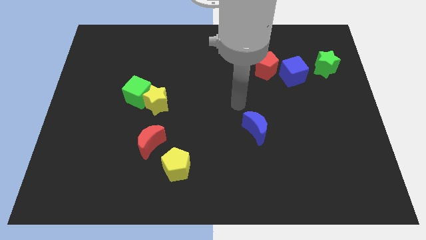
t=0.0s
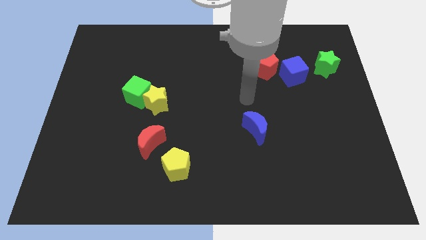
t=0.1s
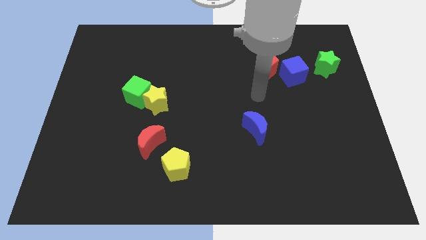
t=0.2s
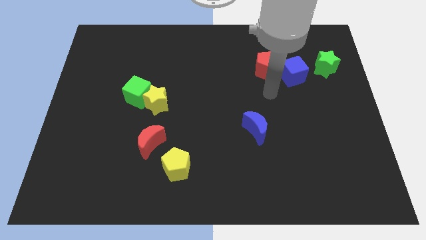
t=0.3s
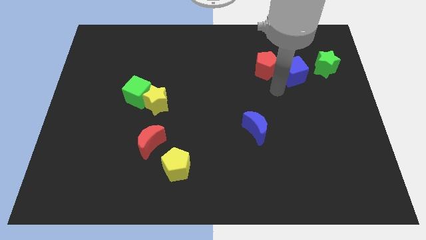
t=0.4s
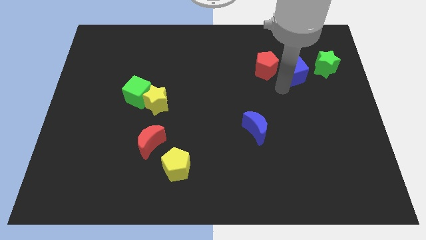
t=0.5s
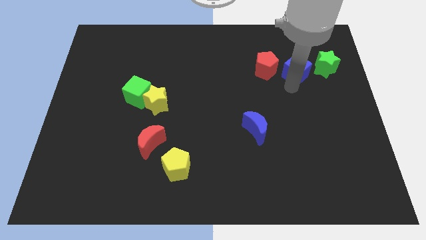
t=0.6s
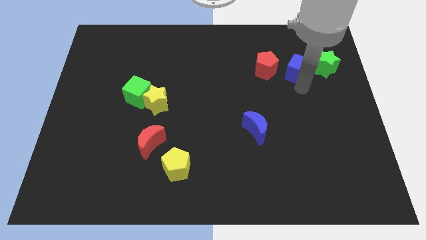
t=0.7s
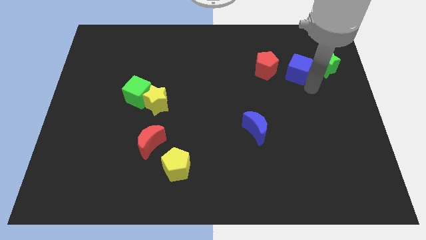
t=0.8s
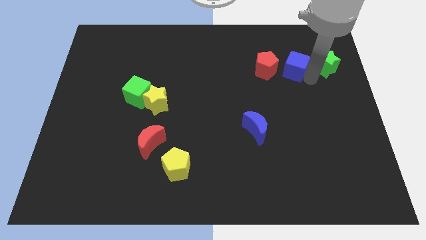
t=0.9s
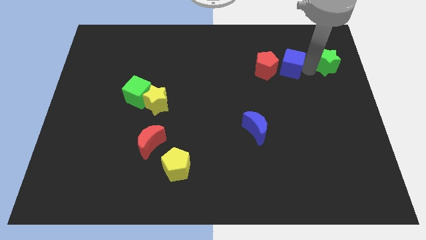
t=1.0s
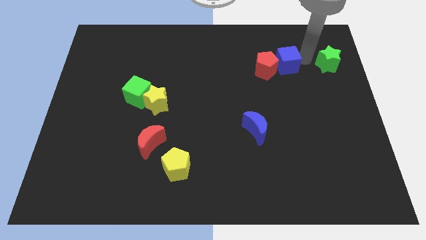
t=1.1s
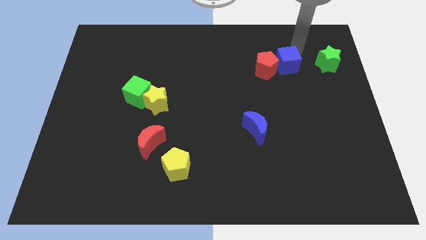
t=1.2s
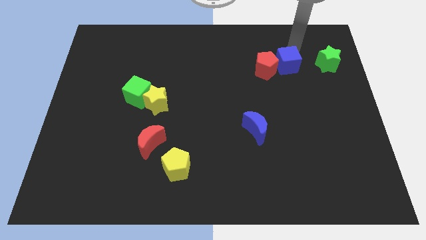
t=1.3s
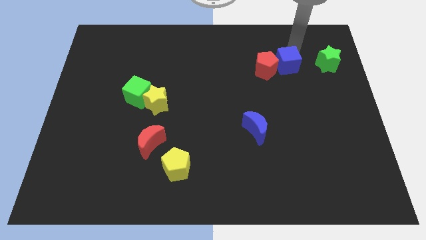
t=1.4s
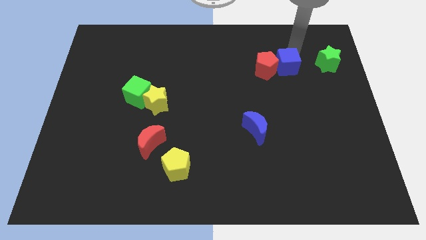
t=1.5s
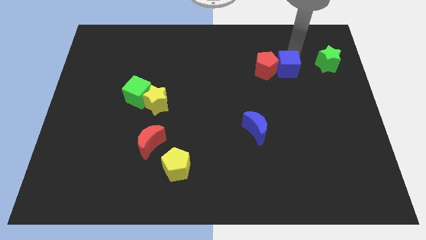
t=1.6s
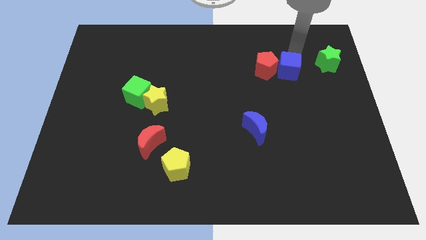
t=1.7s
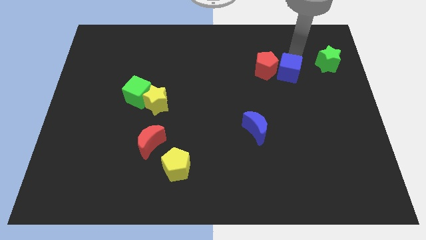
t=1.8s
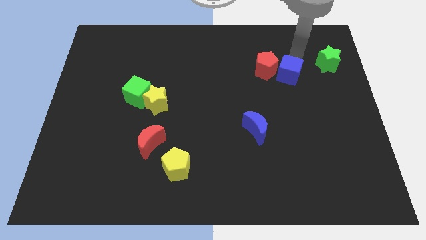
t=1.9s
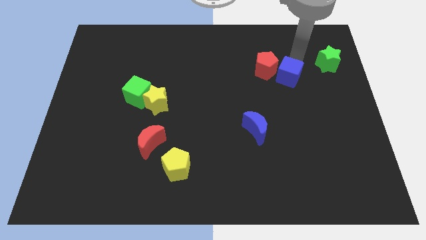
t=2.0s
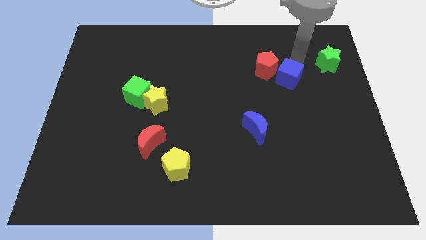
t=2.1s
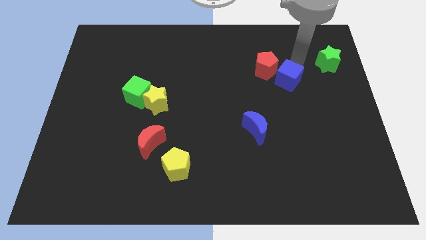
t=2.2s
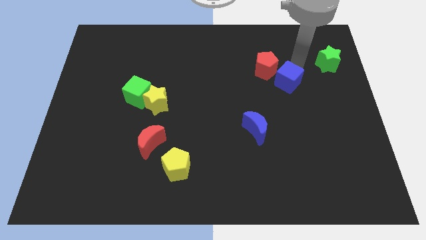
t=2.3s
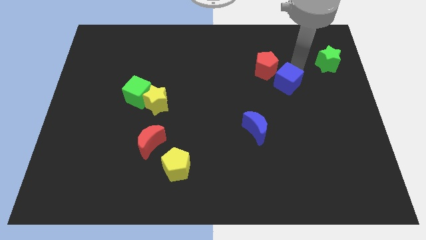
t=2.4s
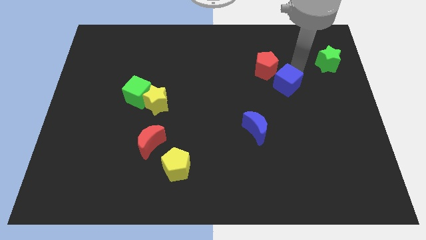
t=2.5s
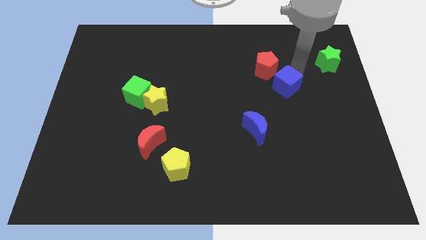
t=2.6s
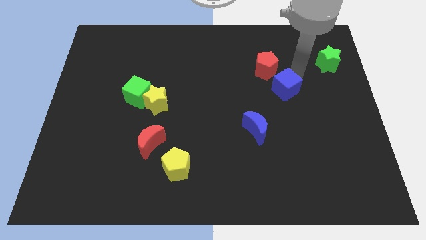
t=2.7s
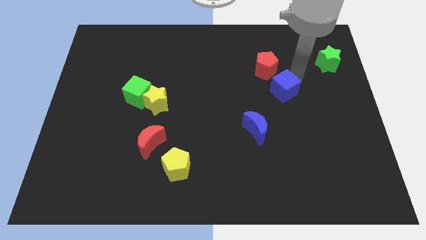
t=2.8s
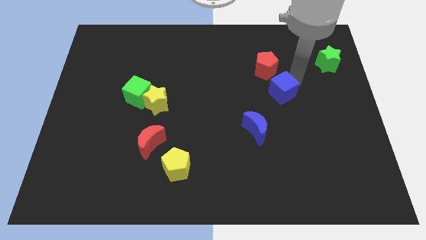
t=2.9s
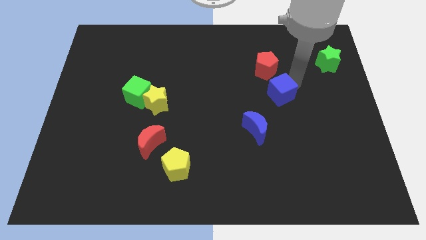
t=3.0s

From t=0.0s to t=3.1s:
slightly push the blue cube diagonally downwards and left

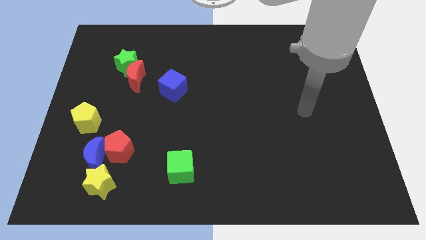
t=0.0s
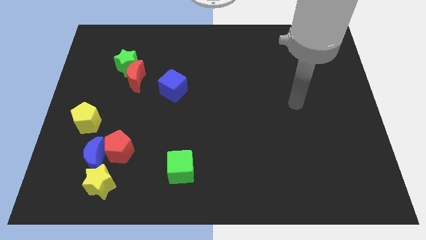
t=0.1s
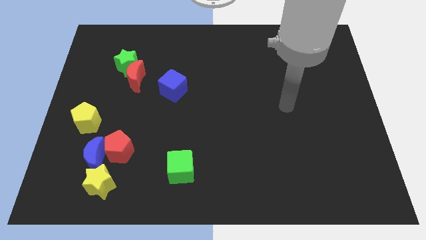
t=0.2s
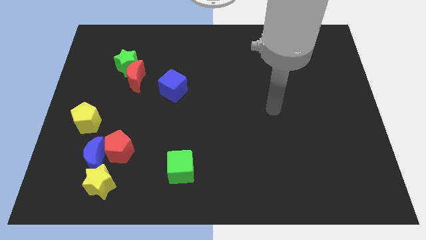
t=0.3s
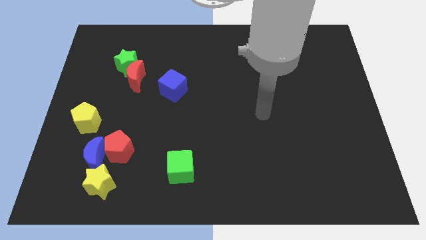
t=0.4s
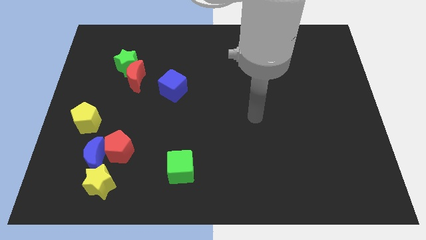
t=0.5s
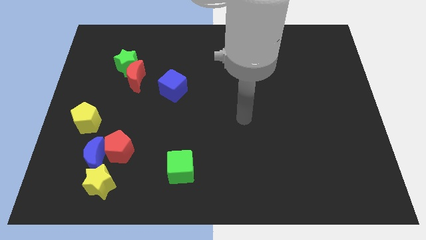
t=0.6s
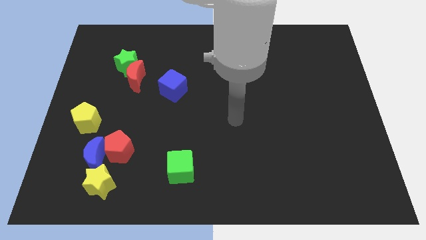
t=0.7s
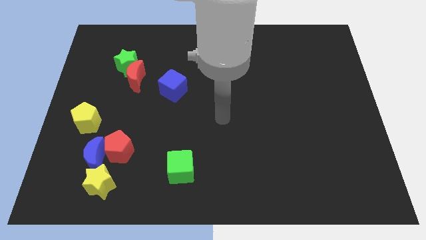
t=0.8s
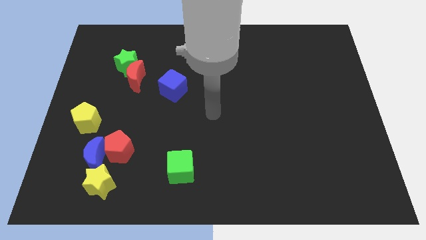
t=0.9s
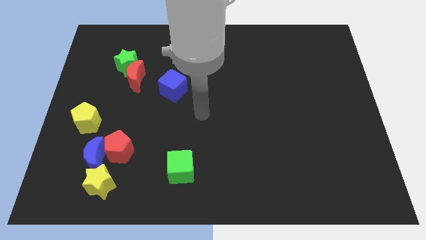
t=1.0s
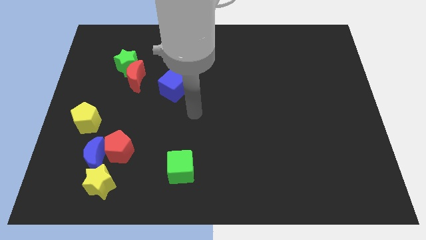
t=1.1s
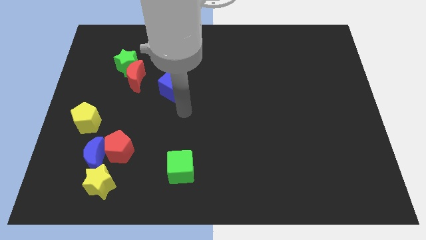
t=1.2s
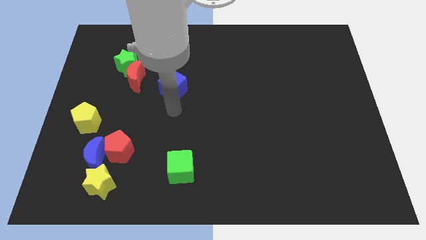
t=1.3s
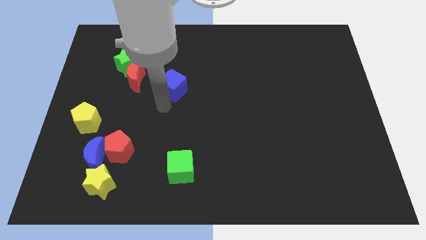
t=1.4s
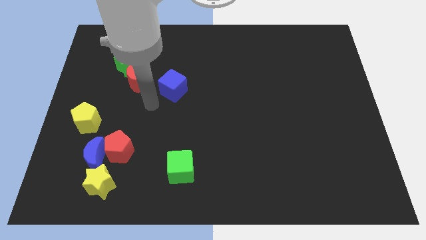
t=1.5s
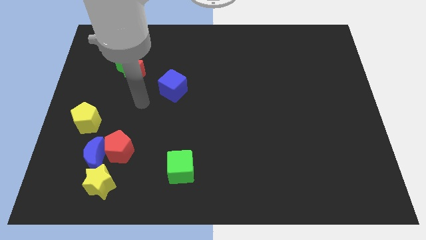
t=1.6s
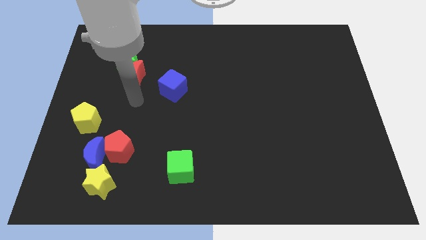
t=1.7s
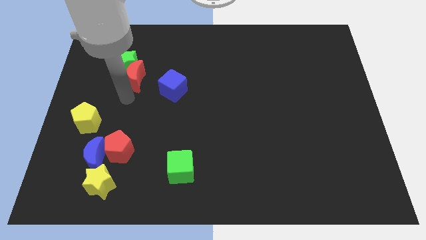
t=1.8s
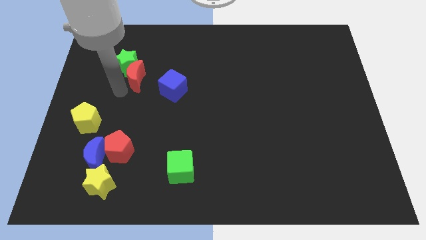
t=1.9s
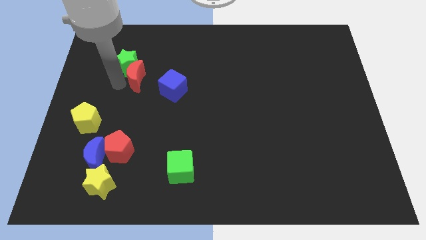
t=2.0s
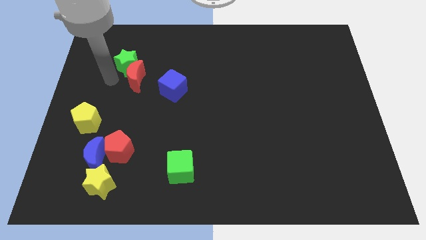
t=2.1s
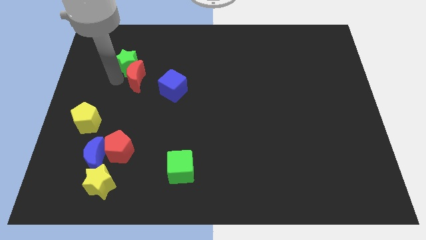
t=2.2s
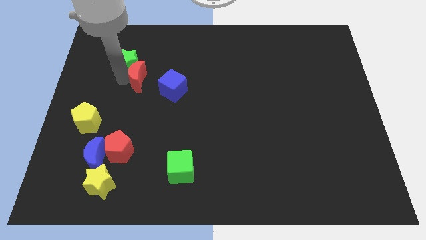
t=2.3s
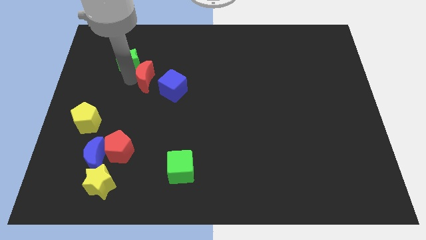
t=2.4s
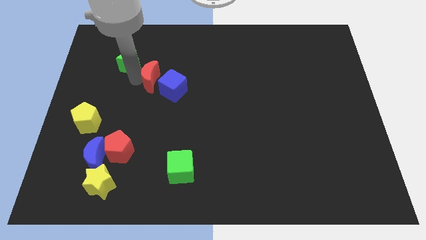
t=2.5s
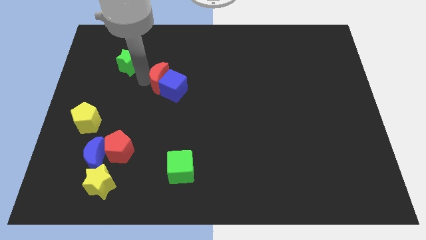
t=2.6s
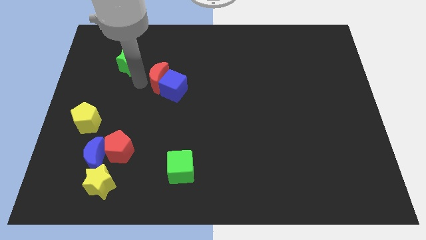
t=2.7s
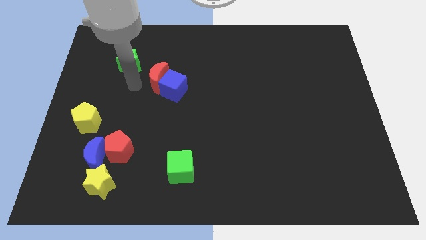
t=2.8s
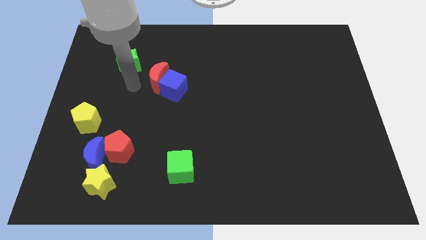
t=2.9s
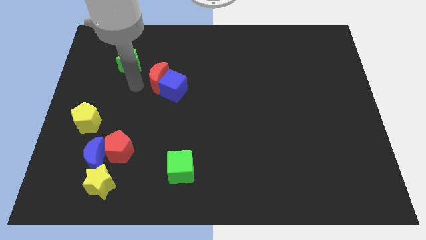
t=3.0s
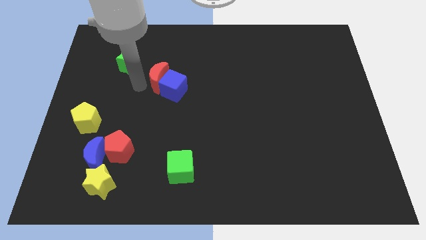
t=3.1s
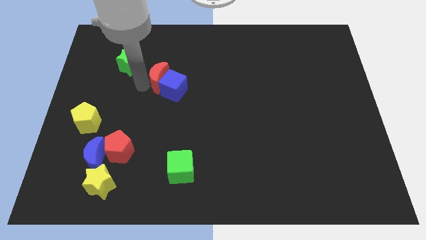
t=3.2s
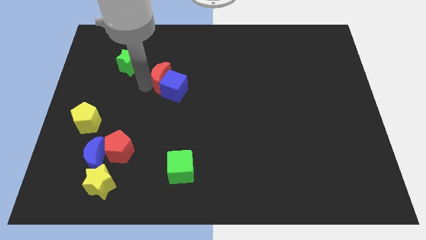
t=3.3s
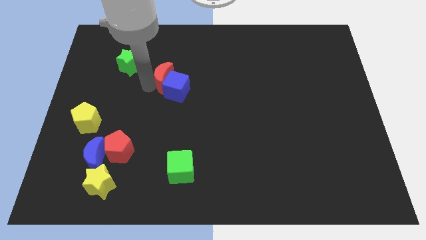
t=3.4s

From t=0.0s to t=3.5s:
slightly push the red moon right

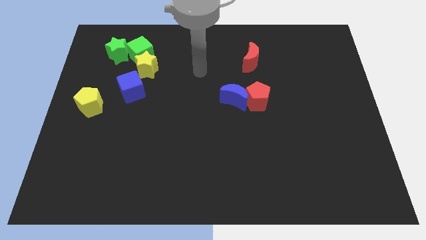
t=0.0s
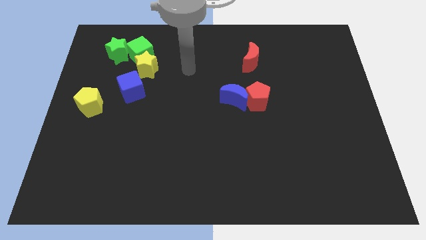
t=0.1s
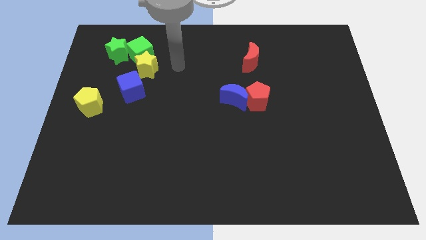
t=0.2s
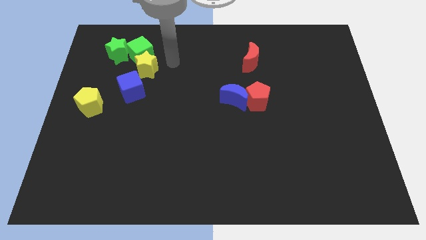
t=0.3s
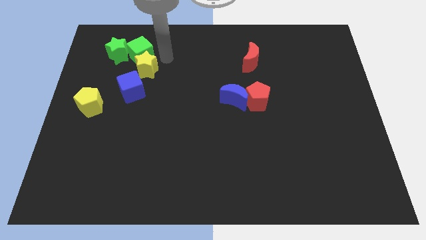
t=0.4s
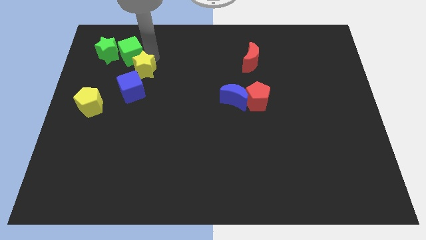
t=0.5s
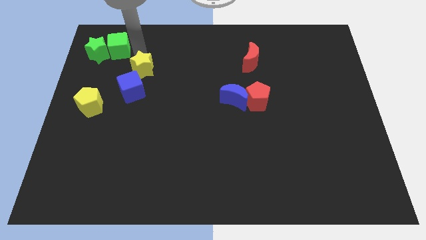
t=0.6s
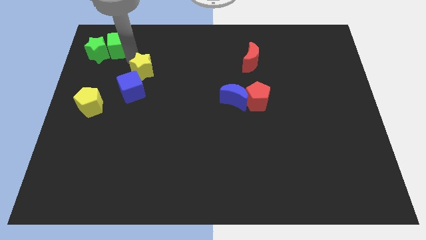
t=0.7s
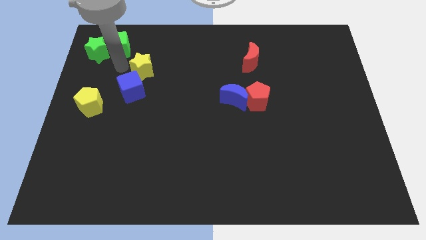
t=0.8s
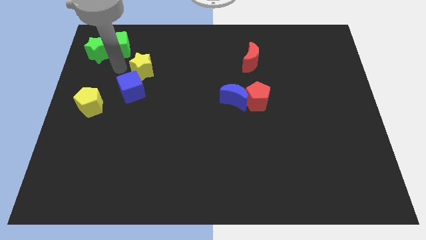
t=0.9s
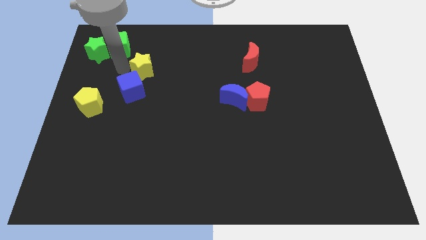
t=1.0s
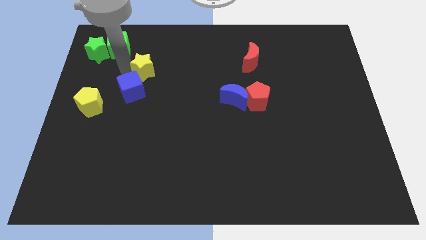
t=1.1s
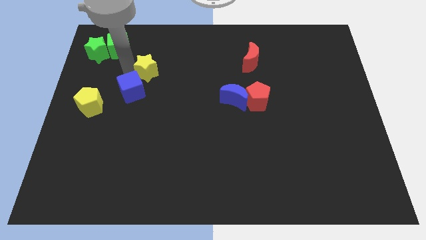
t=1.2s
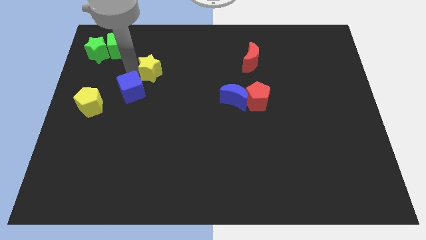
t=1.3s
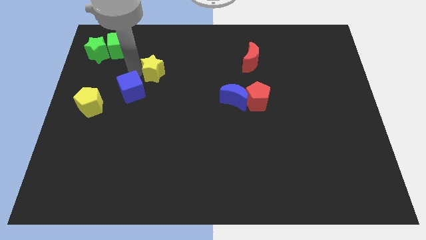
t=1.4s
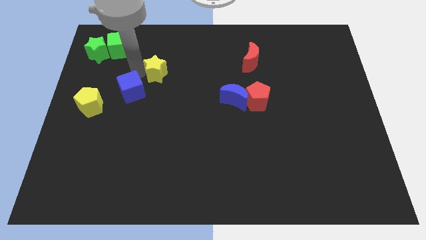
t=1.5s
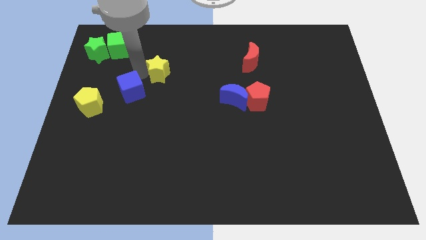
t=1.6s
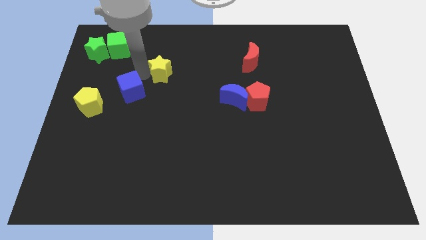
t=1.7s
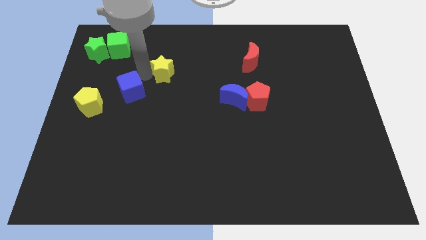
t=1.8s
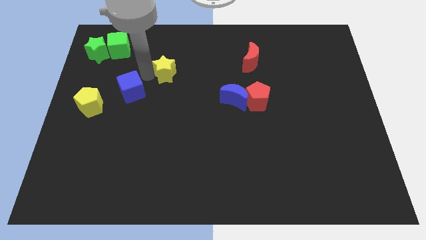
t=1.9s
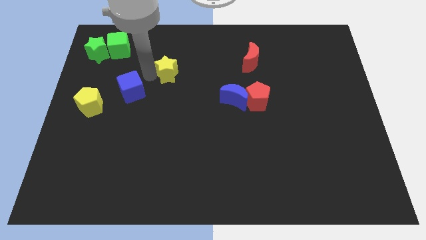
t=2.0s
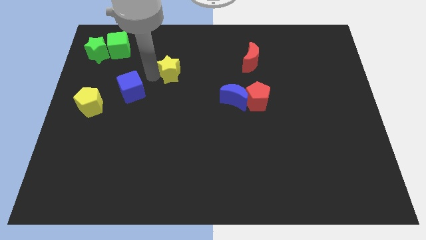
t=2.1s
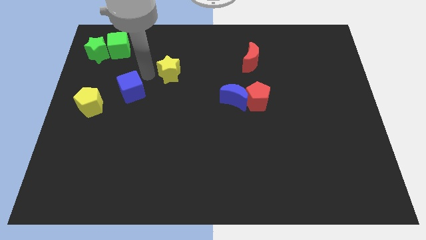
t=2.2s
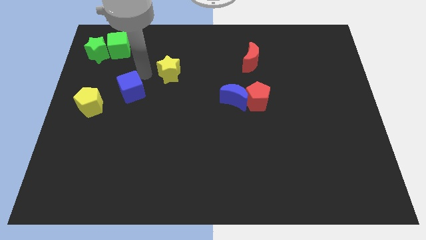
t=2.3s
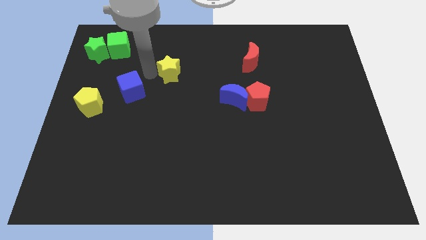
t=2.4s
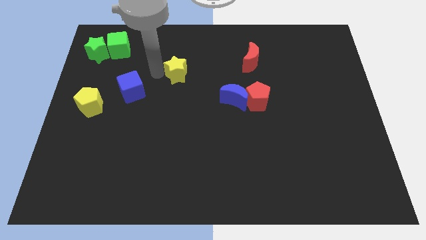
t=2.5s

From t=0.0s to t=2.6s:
slightly slide the yellow star right
